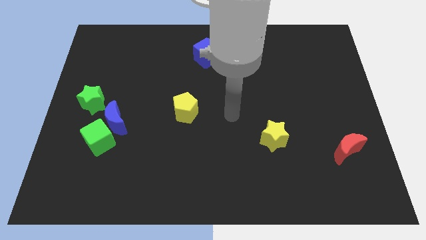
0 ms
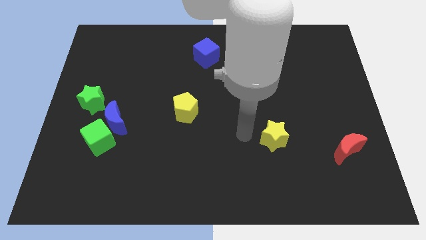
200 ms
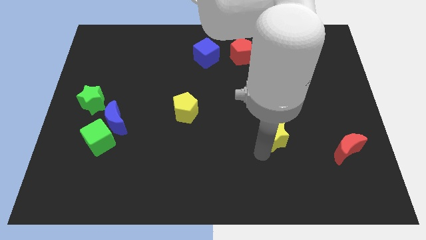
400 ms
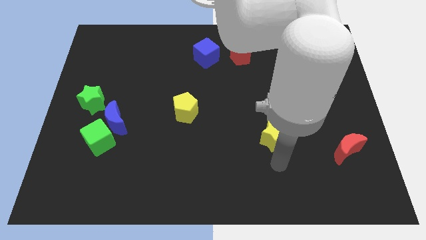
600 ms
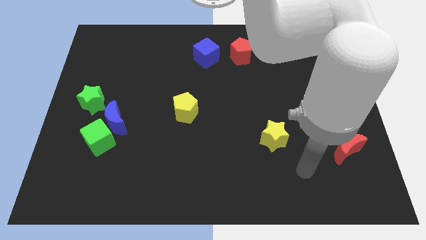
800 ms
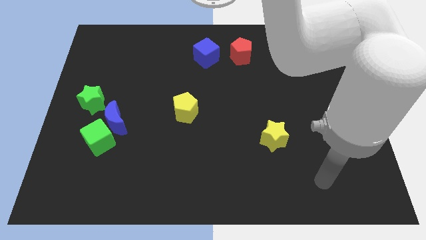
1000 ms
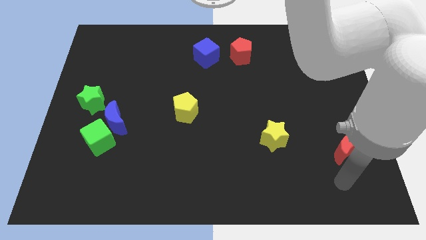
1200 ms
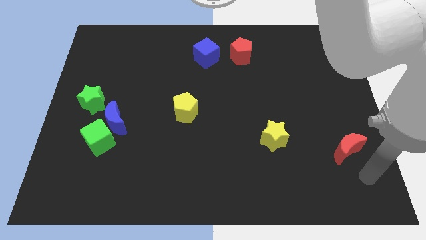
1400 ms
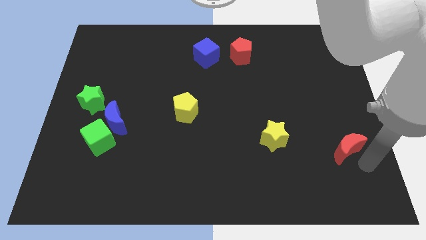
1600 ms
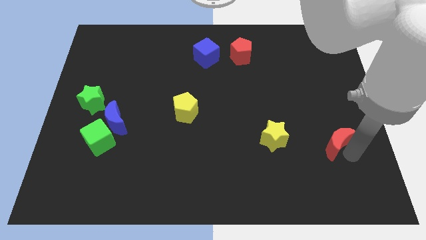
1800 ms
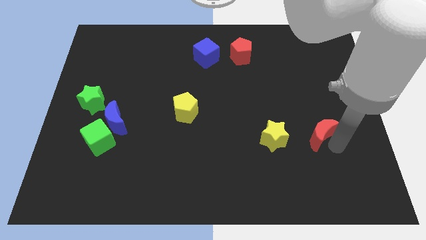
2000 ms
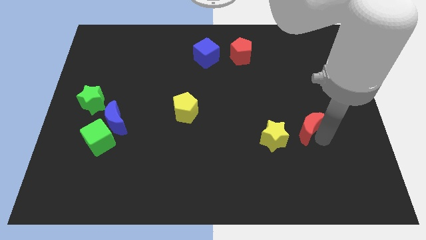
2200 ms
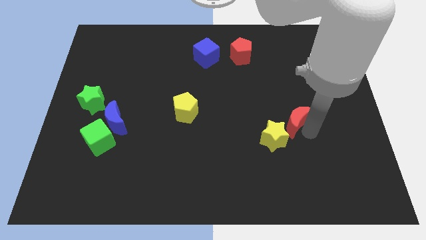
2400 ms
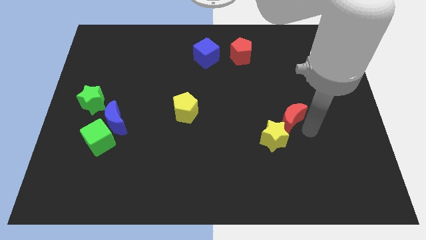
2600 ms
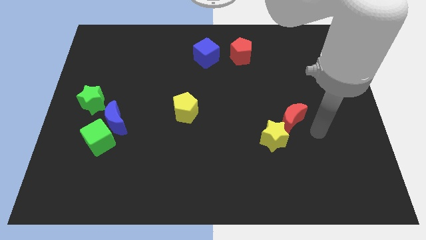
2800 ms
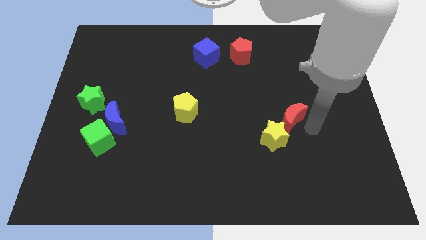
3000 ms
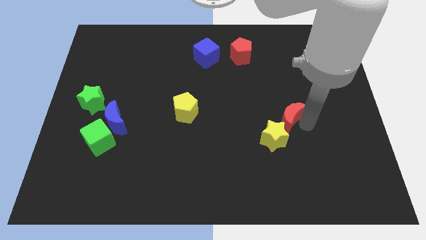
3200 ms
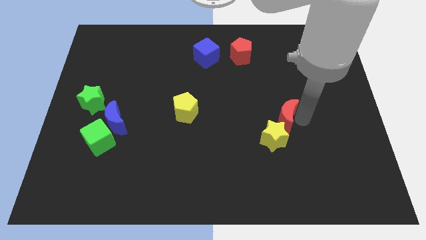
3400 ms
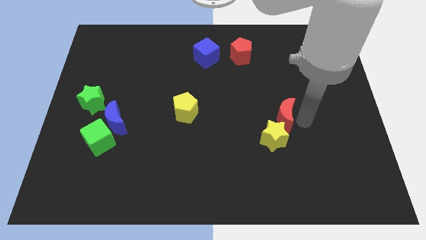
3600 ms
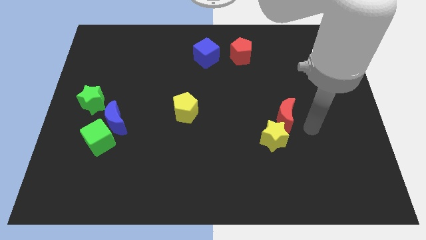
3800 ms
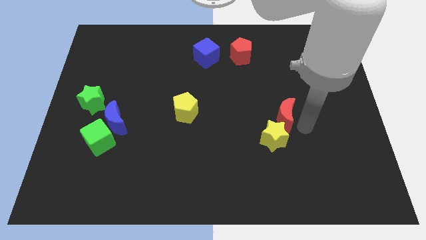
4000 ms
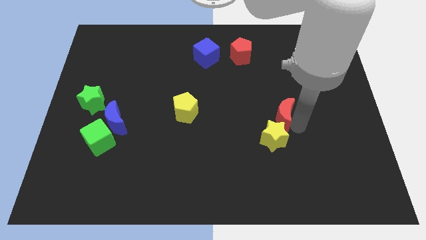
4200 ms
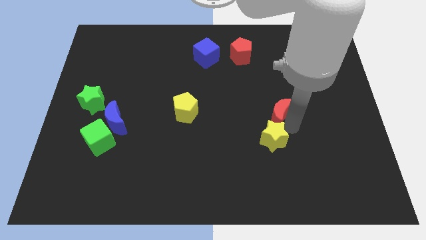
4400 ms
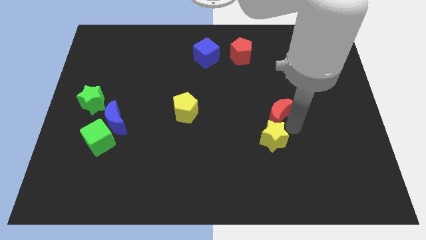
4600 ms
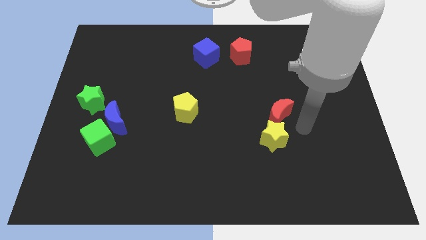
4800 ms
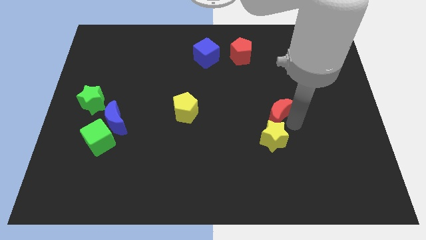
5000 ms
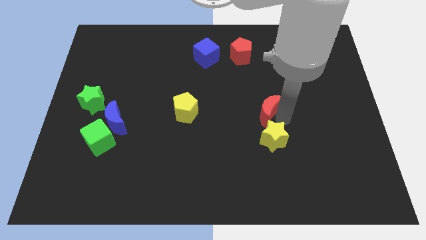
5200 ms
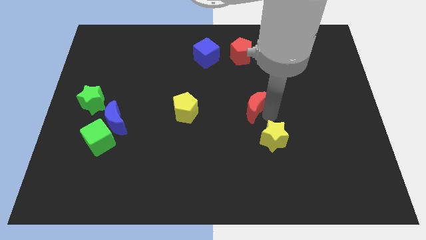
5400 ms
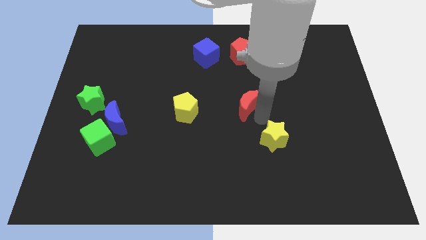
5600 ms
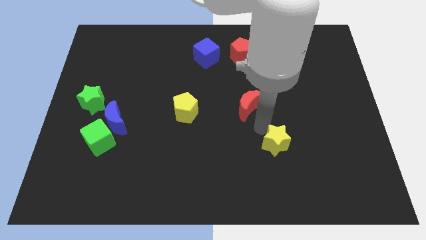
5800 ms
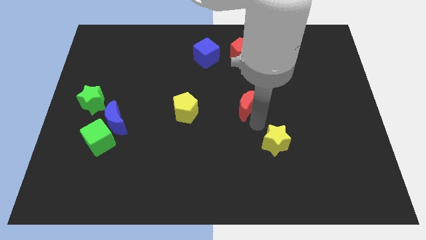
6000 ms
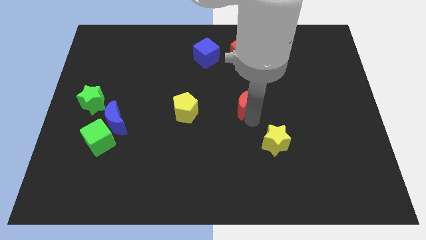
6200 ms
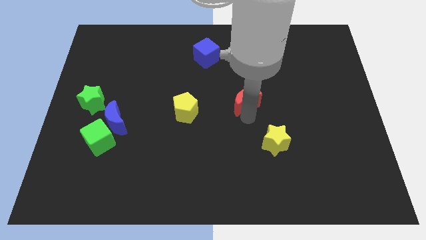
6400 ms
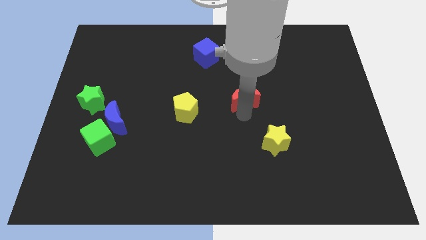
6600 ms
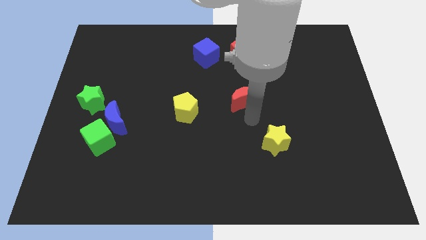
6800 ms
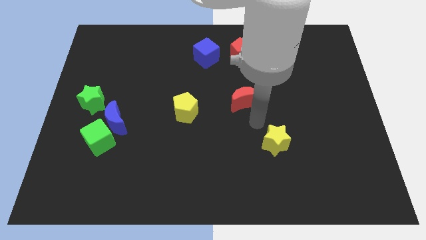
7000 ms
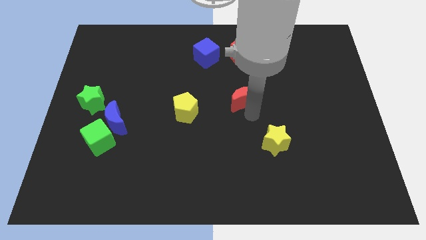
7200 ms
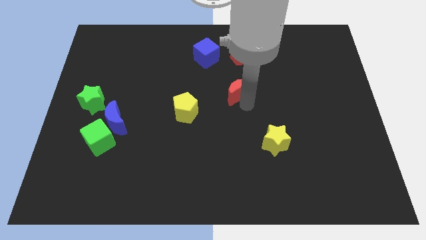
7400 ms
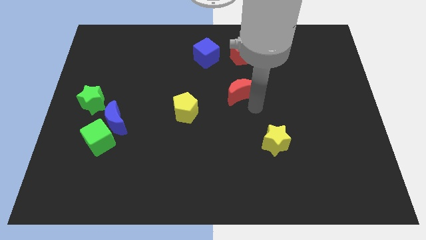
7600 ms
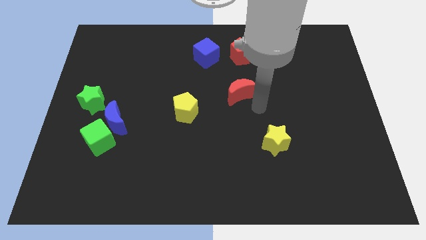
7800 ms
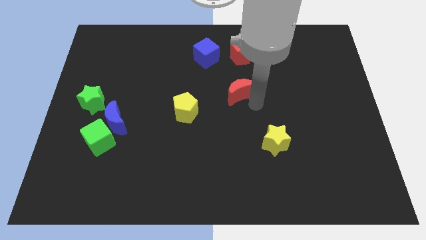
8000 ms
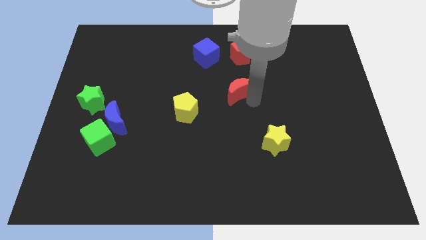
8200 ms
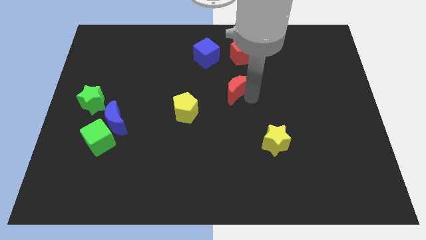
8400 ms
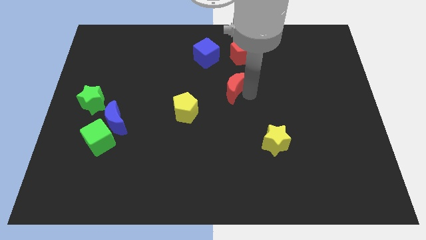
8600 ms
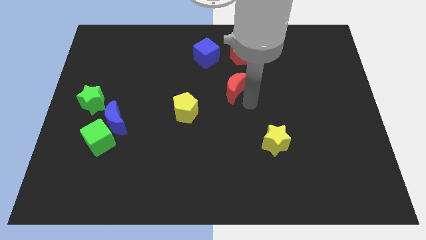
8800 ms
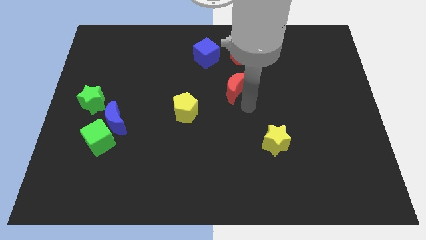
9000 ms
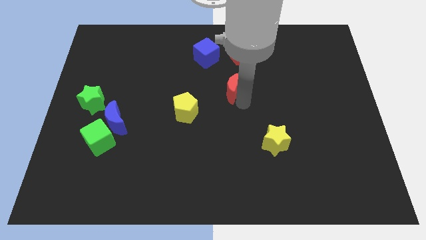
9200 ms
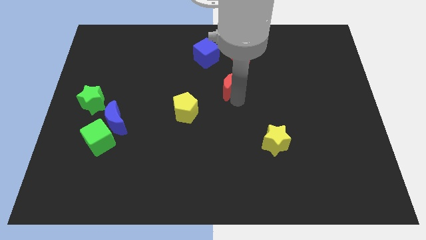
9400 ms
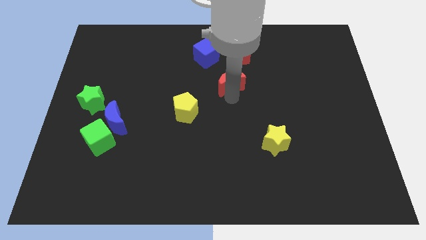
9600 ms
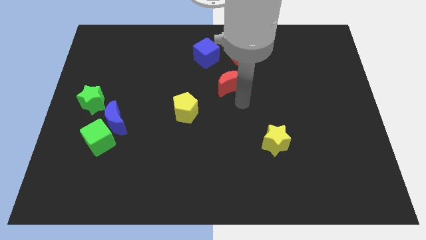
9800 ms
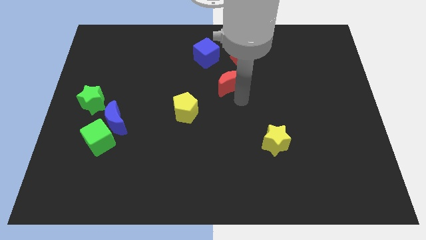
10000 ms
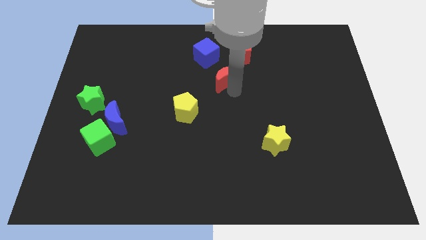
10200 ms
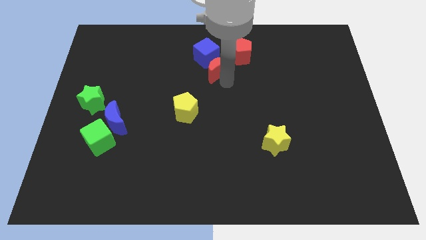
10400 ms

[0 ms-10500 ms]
put the red moon next to the blue cube
